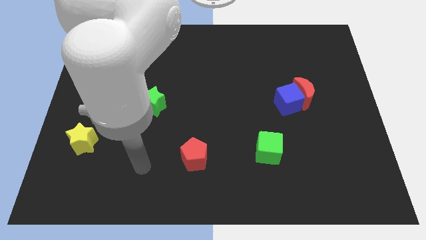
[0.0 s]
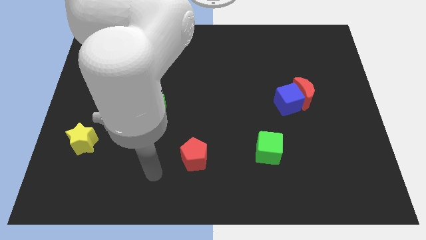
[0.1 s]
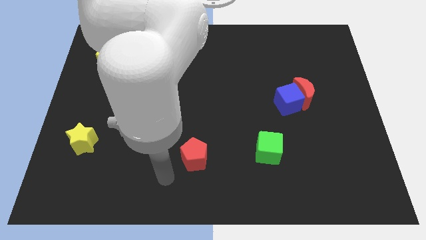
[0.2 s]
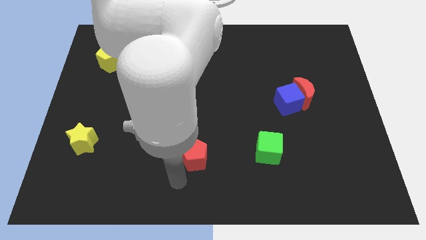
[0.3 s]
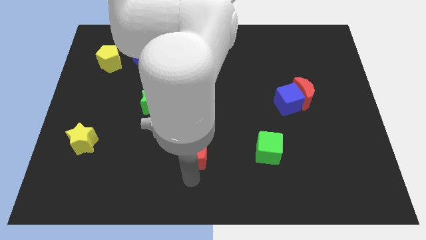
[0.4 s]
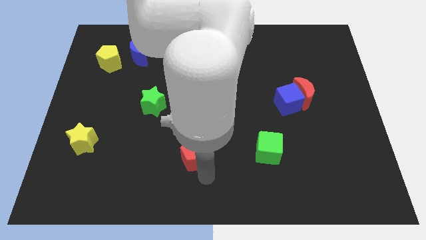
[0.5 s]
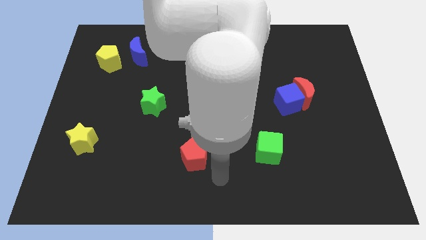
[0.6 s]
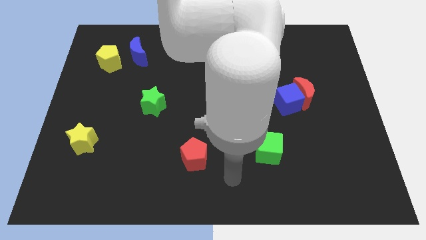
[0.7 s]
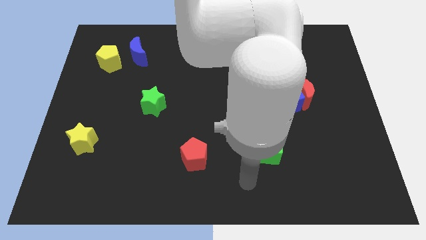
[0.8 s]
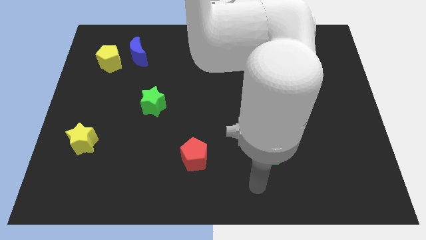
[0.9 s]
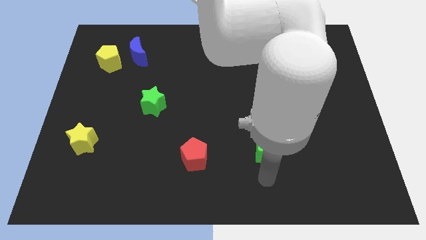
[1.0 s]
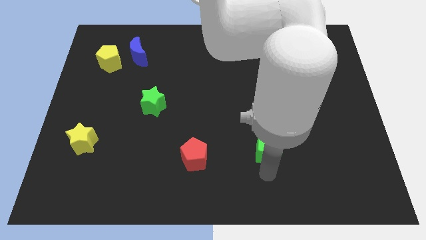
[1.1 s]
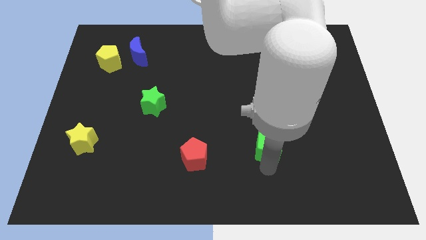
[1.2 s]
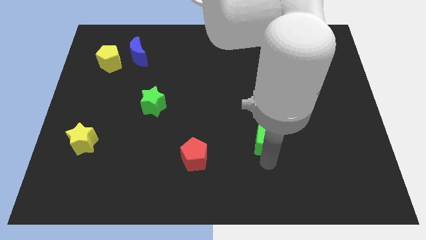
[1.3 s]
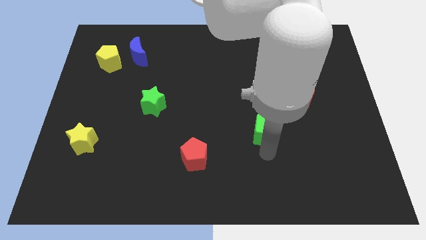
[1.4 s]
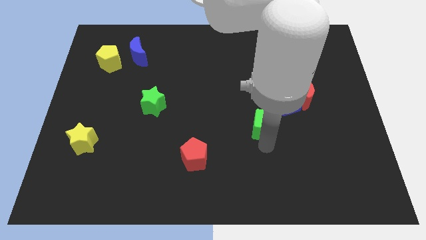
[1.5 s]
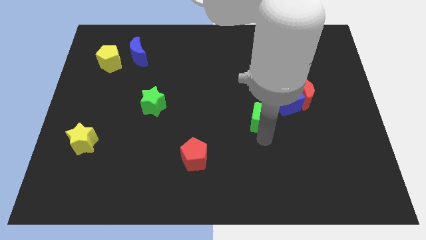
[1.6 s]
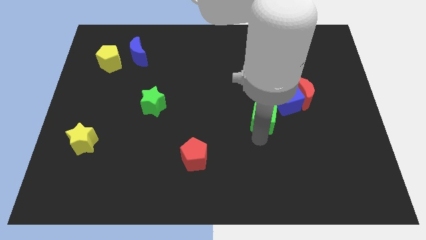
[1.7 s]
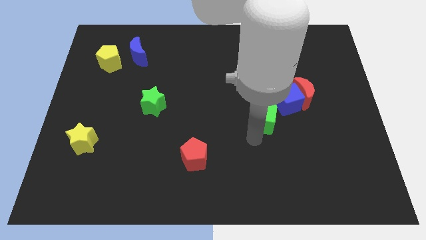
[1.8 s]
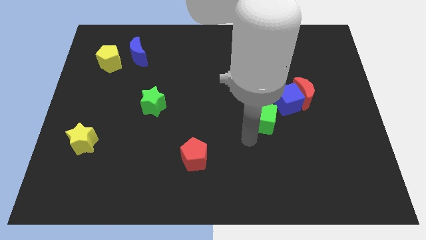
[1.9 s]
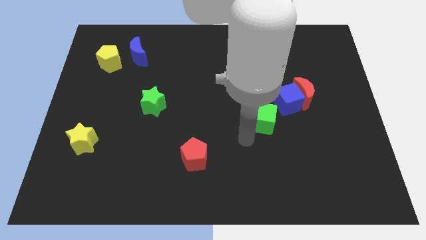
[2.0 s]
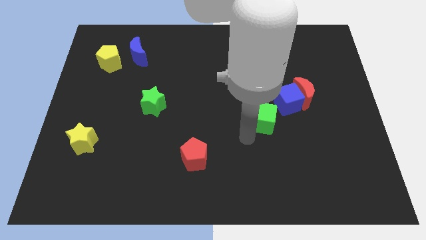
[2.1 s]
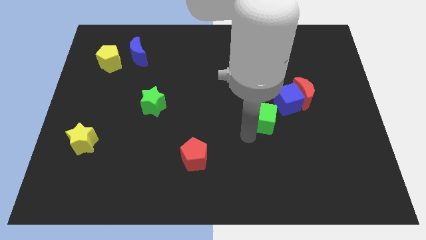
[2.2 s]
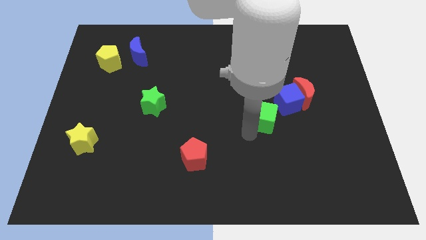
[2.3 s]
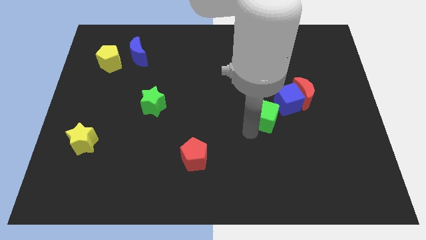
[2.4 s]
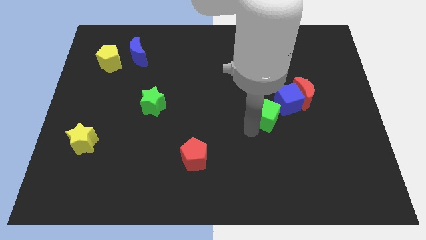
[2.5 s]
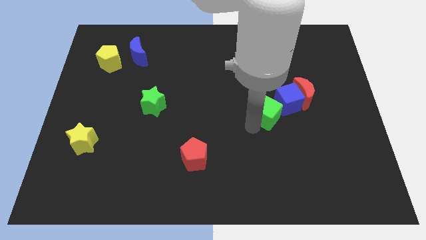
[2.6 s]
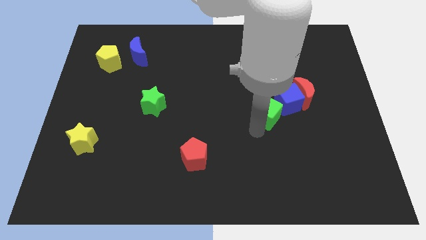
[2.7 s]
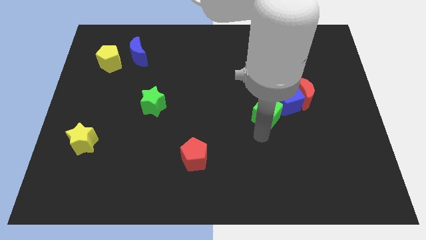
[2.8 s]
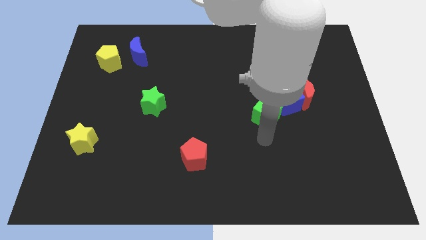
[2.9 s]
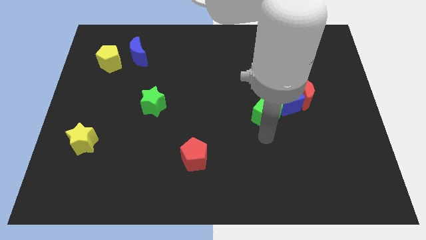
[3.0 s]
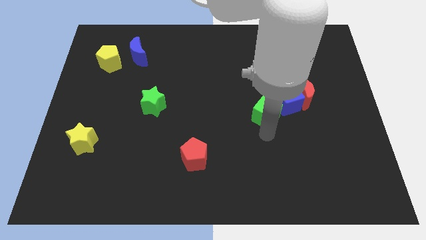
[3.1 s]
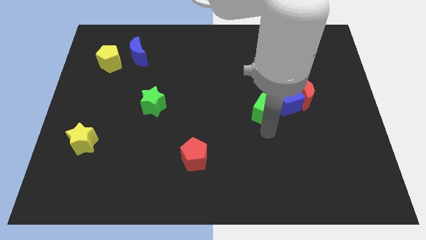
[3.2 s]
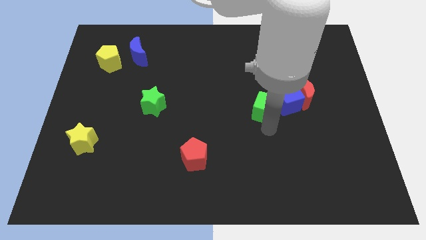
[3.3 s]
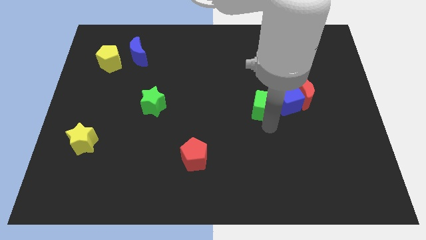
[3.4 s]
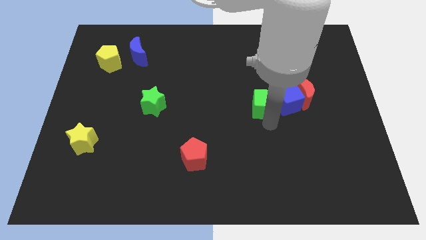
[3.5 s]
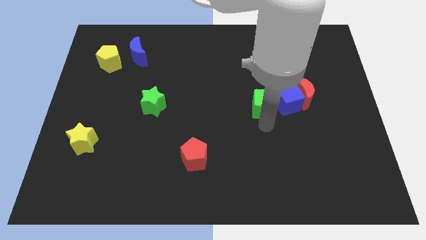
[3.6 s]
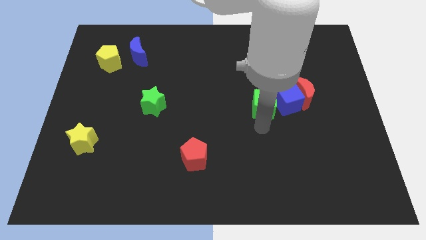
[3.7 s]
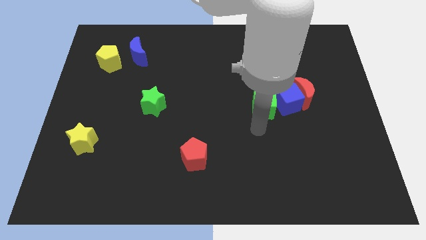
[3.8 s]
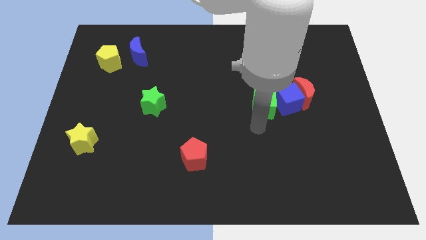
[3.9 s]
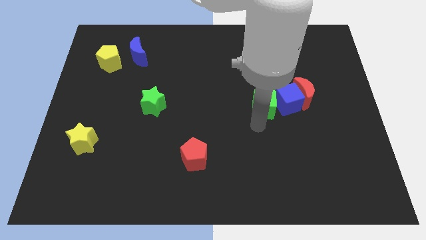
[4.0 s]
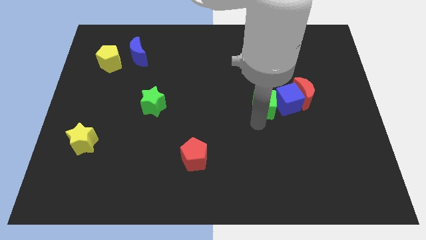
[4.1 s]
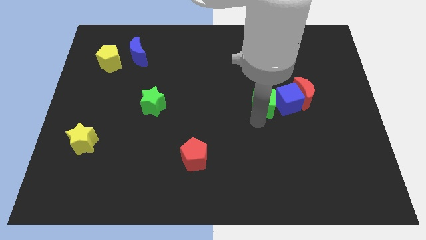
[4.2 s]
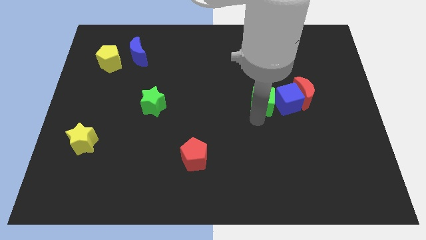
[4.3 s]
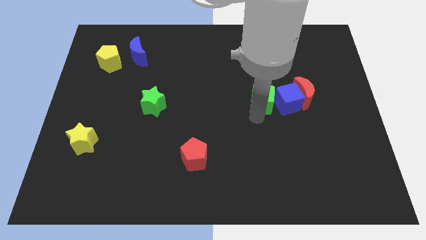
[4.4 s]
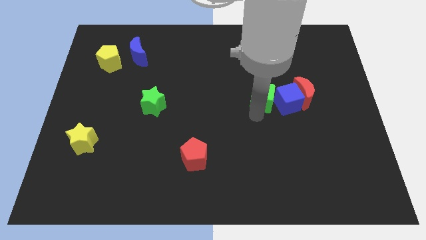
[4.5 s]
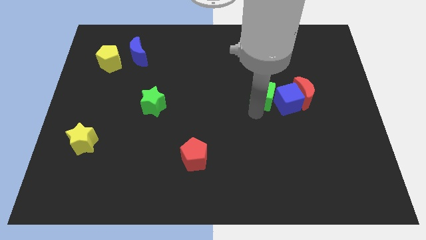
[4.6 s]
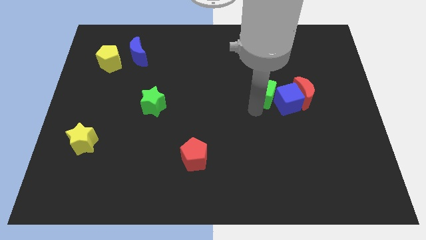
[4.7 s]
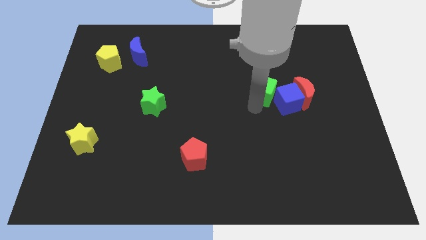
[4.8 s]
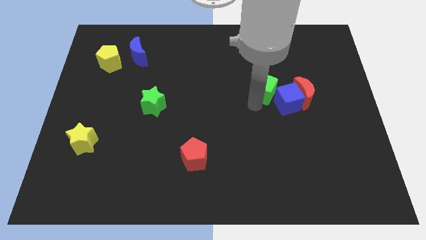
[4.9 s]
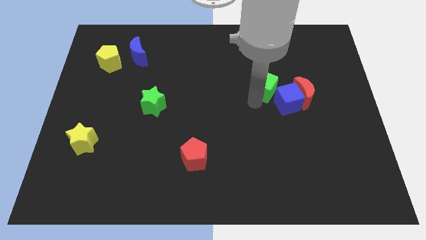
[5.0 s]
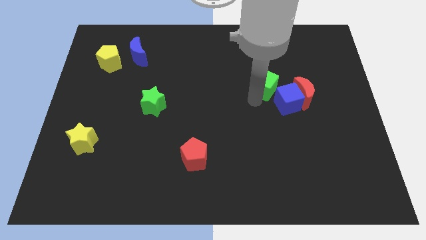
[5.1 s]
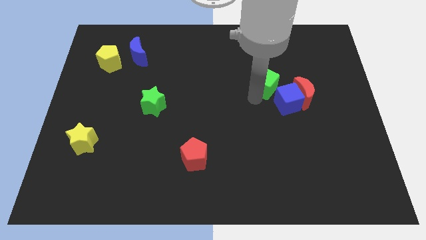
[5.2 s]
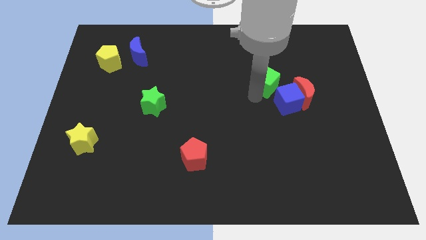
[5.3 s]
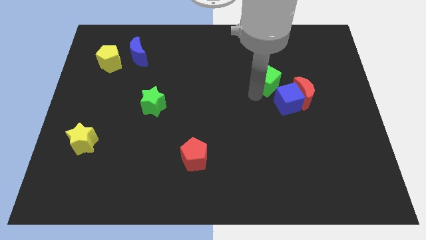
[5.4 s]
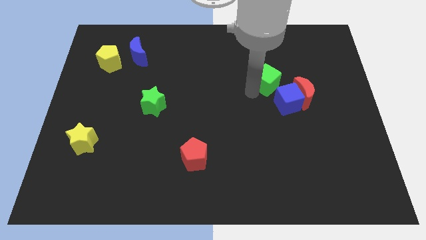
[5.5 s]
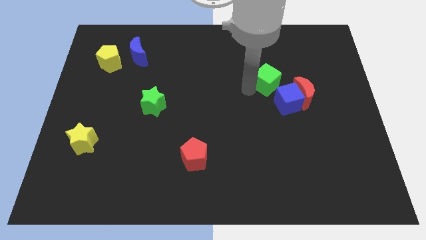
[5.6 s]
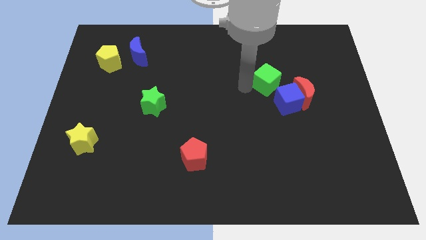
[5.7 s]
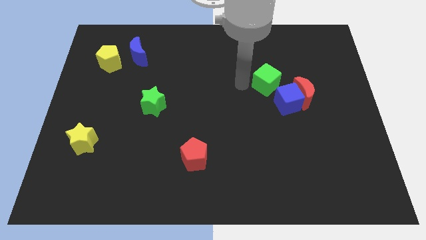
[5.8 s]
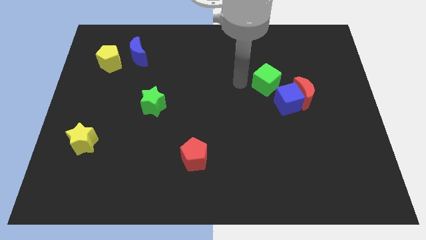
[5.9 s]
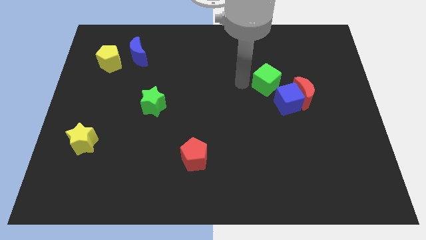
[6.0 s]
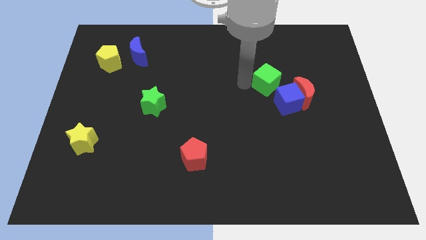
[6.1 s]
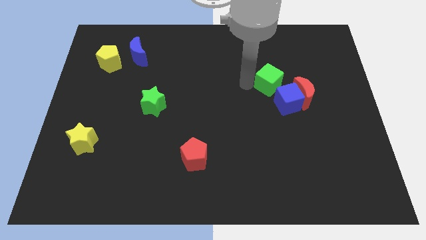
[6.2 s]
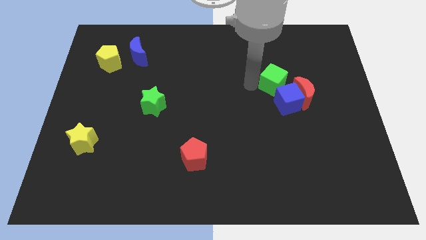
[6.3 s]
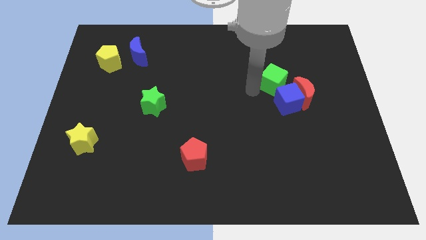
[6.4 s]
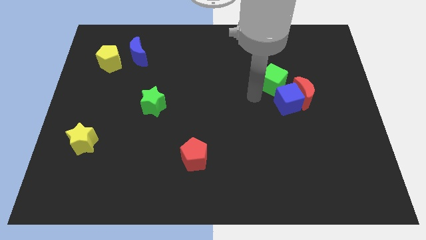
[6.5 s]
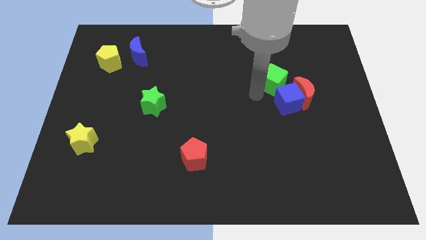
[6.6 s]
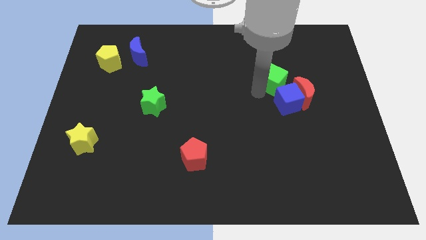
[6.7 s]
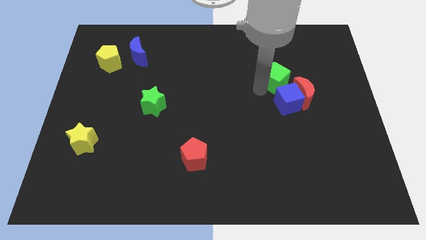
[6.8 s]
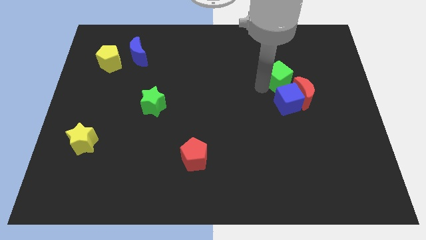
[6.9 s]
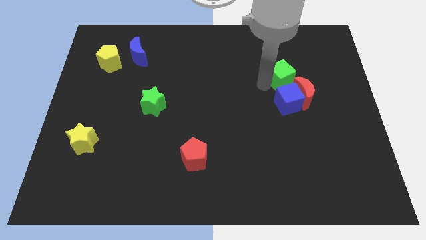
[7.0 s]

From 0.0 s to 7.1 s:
push the green cube to the top side of the red moon
